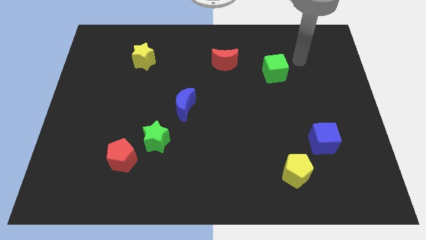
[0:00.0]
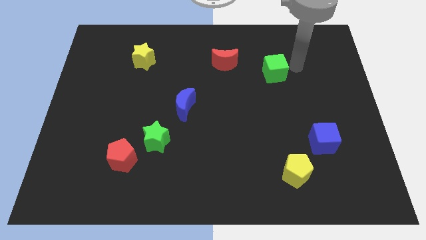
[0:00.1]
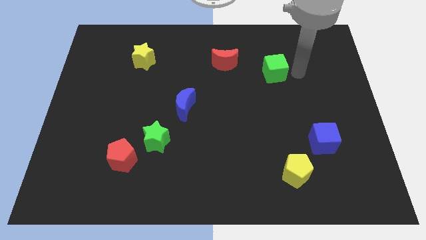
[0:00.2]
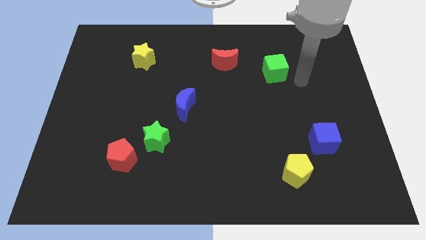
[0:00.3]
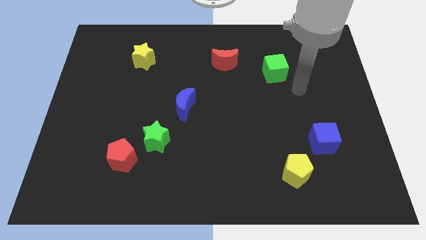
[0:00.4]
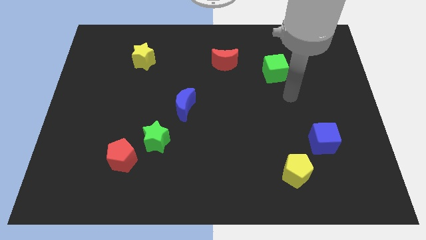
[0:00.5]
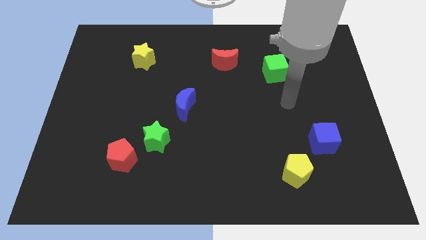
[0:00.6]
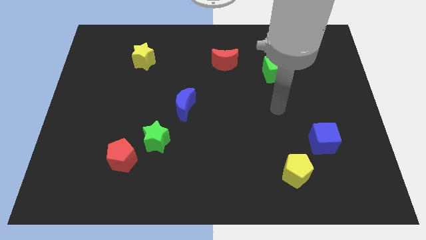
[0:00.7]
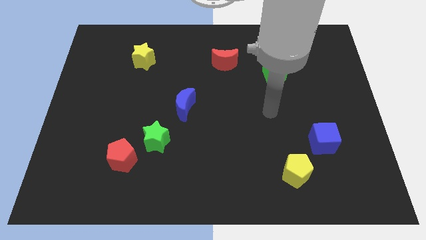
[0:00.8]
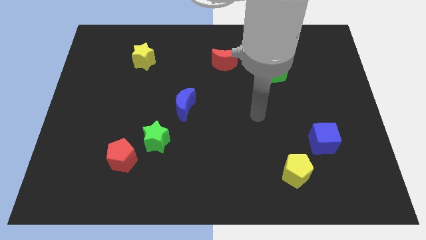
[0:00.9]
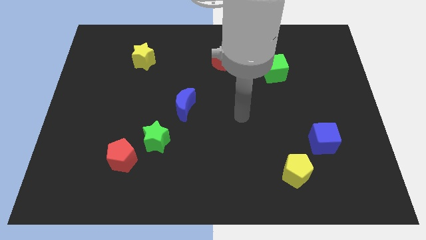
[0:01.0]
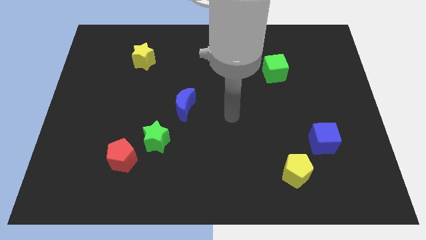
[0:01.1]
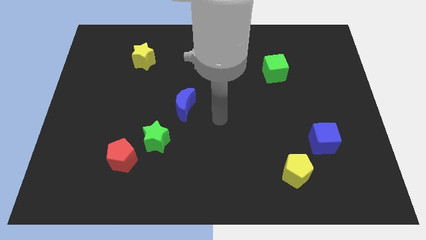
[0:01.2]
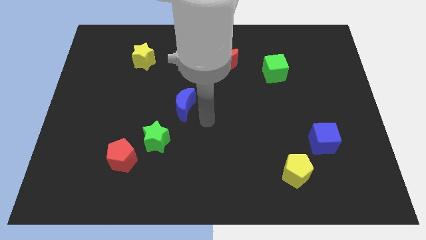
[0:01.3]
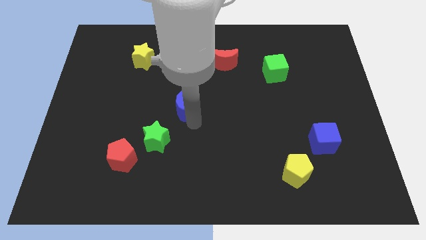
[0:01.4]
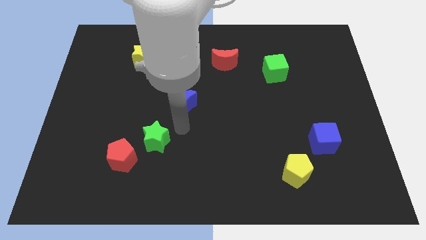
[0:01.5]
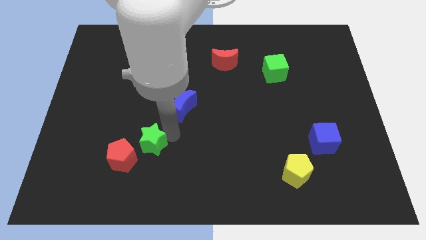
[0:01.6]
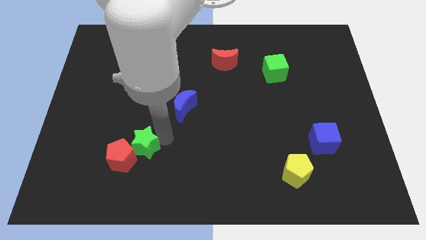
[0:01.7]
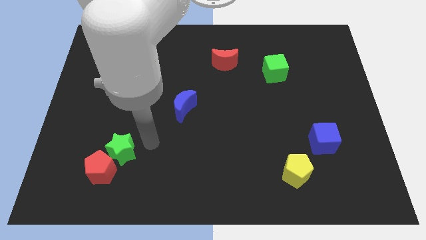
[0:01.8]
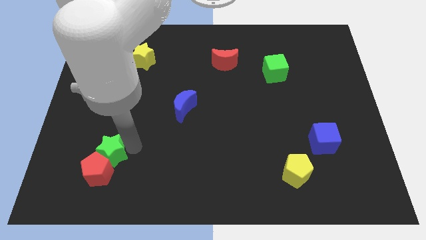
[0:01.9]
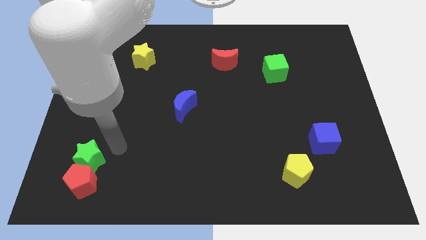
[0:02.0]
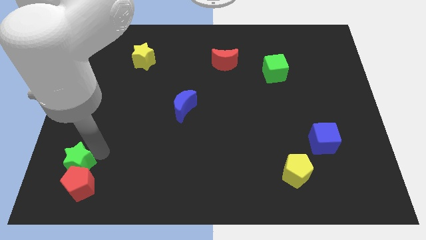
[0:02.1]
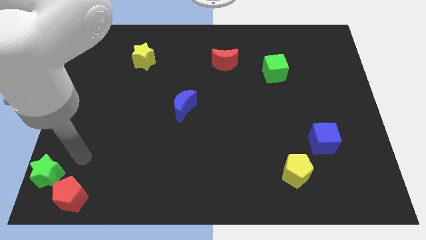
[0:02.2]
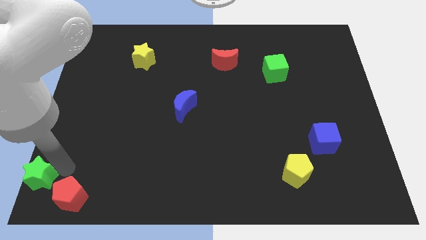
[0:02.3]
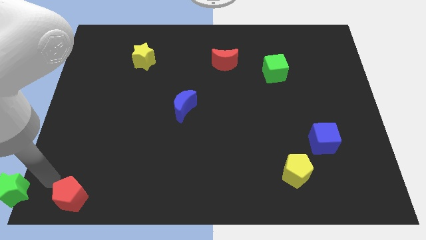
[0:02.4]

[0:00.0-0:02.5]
separate the red pentagon from the green star

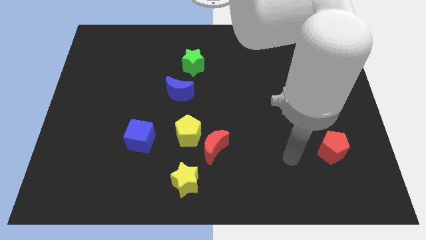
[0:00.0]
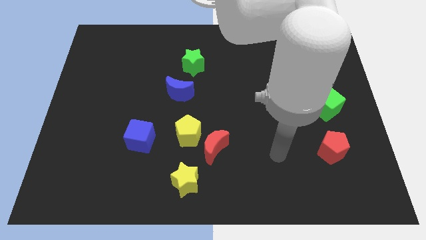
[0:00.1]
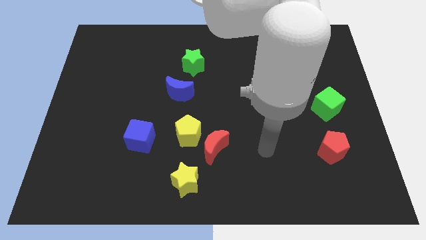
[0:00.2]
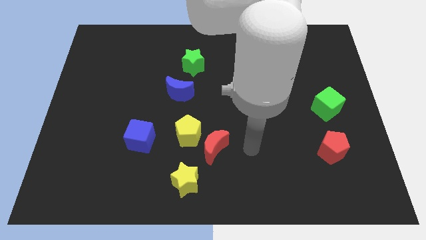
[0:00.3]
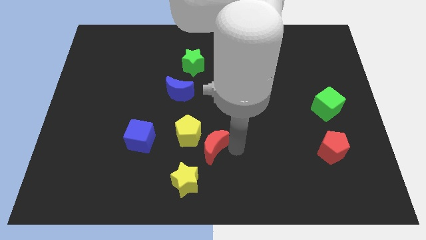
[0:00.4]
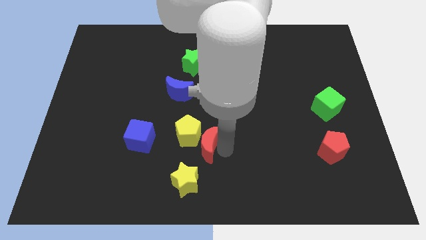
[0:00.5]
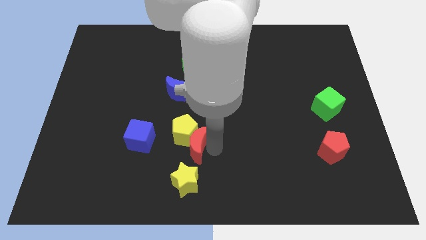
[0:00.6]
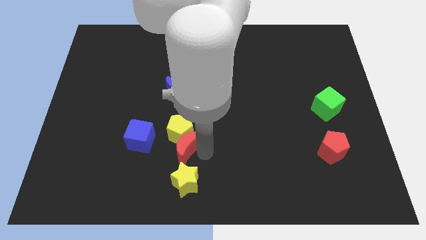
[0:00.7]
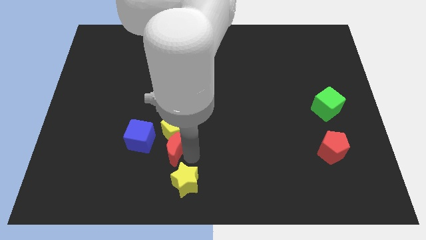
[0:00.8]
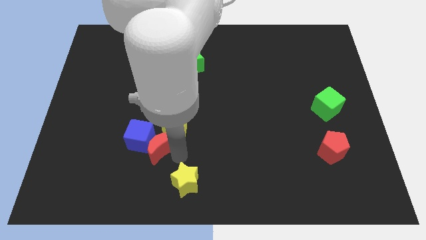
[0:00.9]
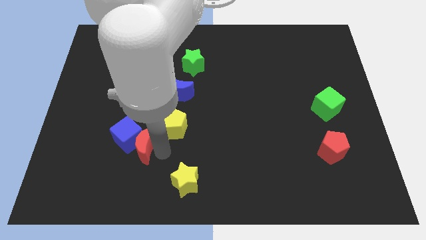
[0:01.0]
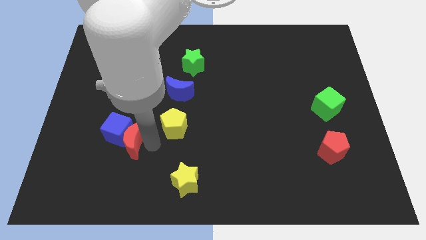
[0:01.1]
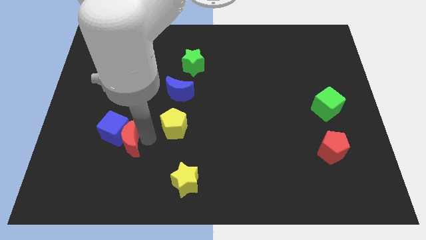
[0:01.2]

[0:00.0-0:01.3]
move the yellow pentagon away from the red moon

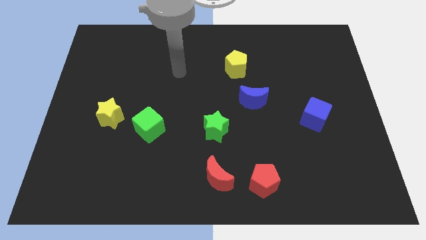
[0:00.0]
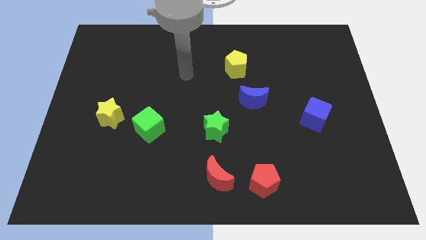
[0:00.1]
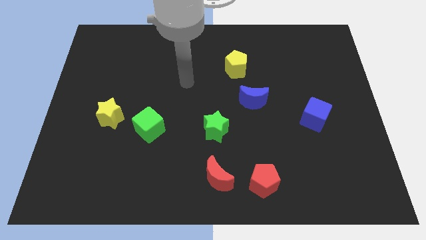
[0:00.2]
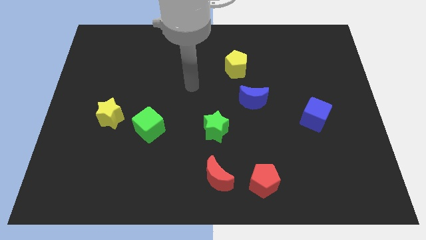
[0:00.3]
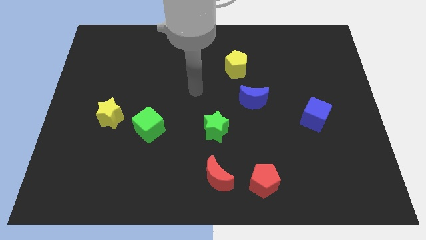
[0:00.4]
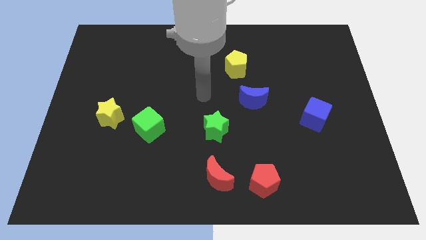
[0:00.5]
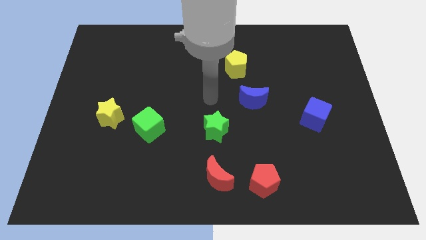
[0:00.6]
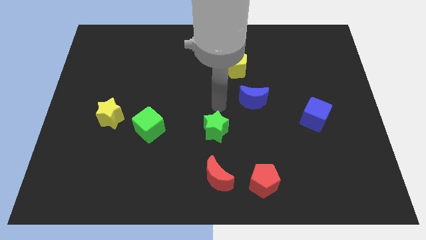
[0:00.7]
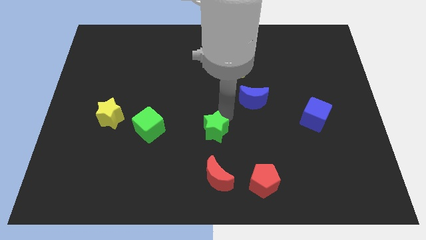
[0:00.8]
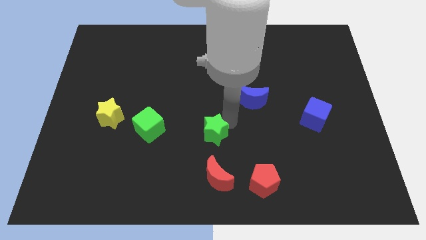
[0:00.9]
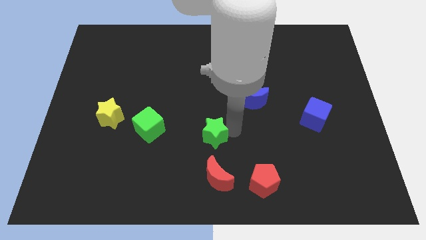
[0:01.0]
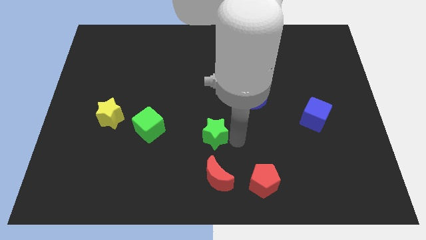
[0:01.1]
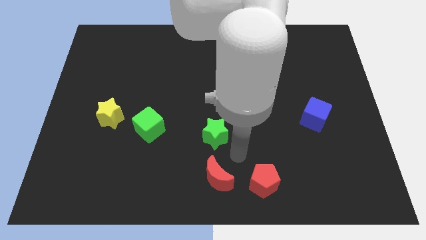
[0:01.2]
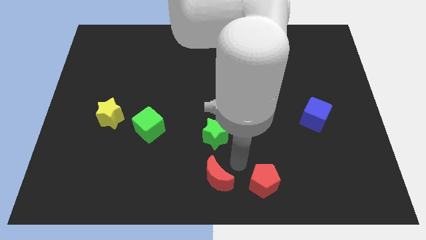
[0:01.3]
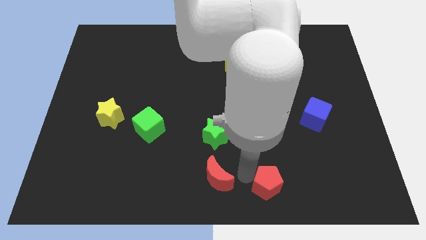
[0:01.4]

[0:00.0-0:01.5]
separate the red moon from the red pentagon

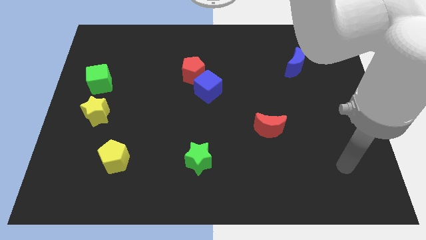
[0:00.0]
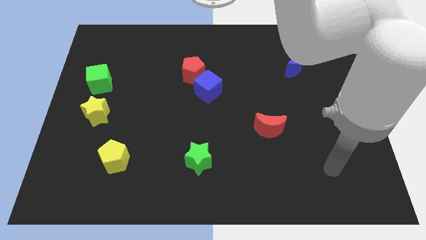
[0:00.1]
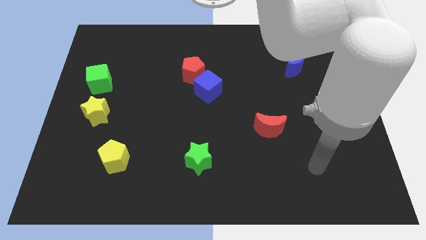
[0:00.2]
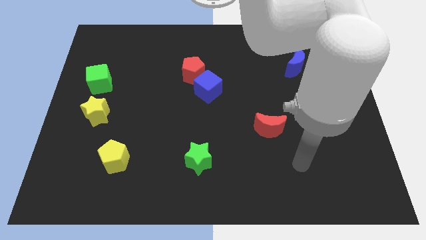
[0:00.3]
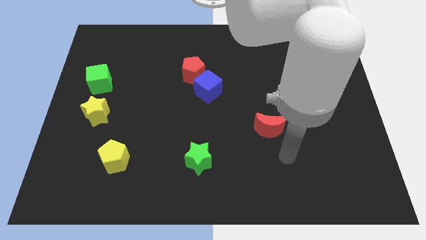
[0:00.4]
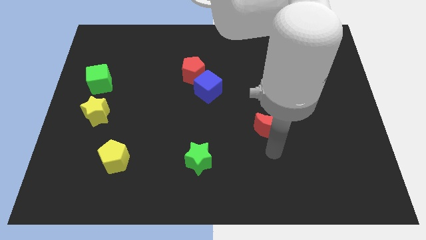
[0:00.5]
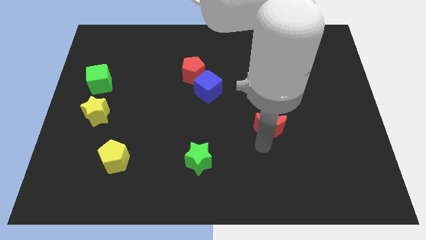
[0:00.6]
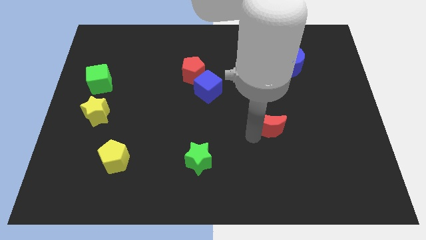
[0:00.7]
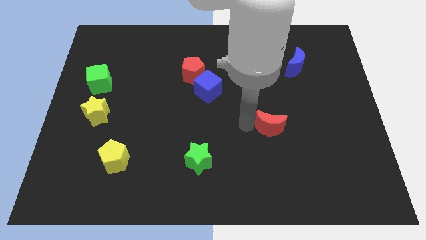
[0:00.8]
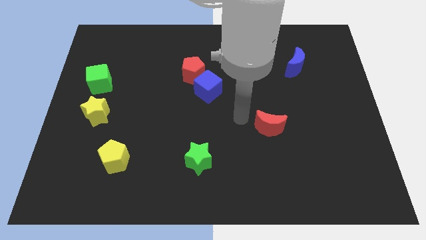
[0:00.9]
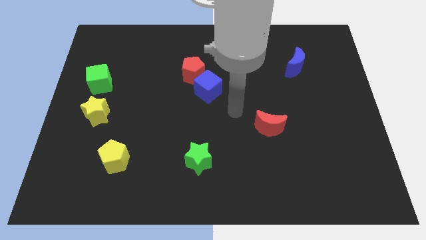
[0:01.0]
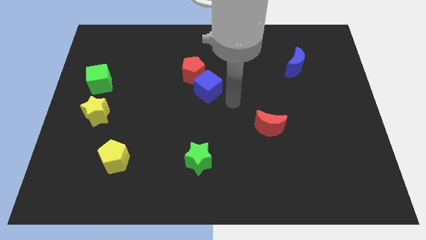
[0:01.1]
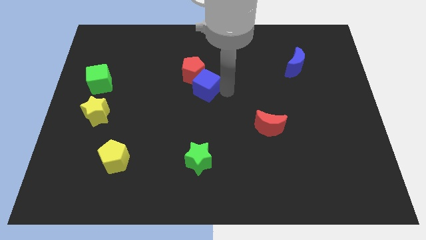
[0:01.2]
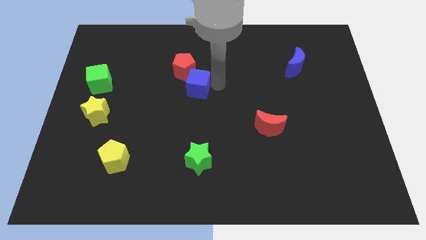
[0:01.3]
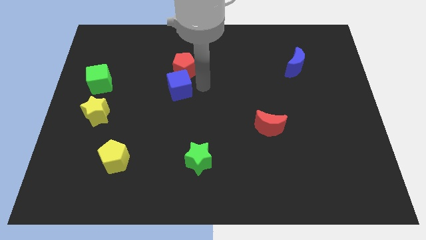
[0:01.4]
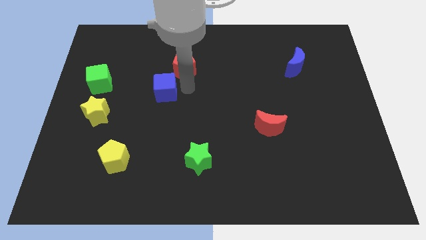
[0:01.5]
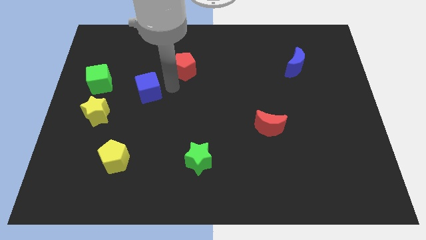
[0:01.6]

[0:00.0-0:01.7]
separate the red pentagon from the blue cube

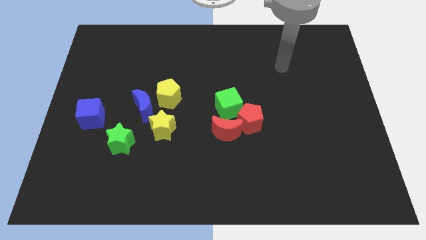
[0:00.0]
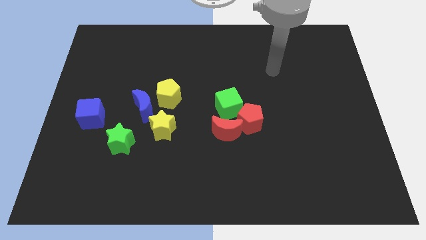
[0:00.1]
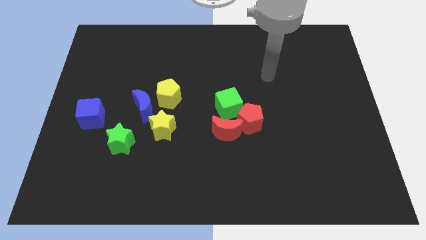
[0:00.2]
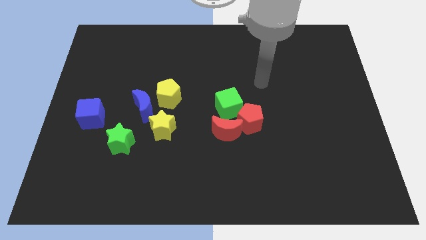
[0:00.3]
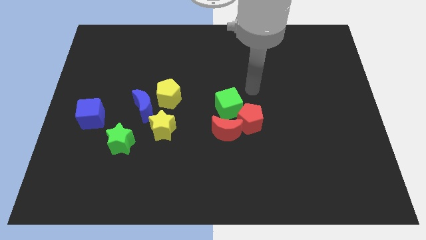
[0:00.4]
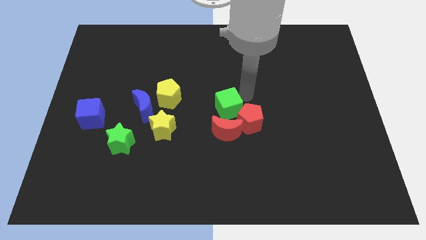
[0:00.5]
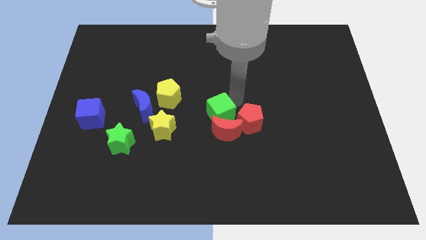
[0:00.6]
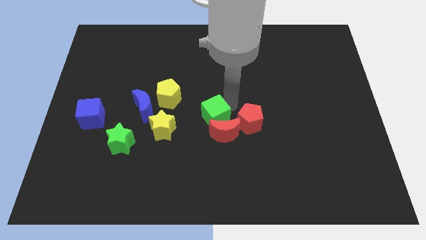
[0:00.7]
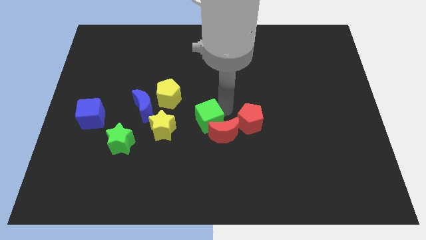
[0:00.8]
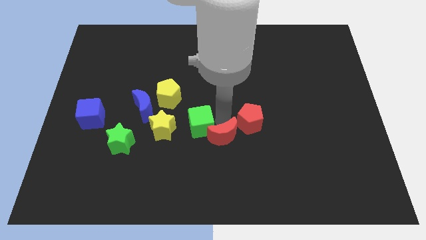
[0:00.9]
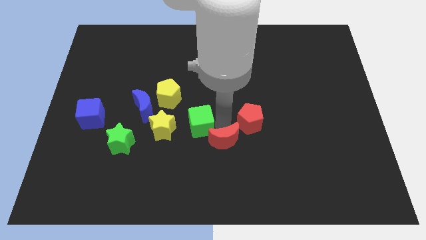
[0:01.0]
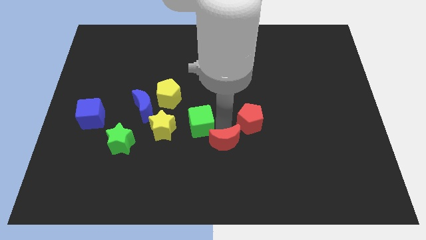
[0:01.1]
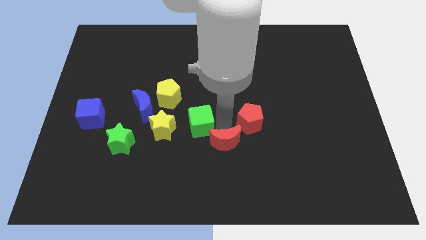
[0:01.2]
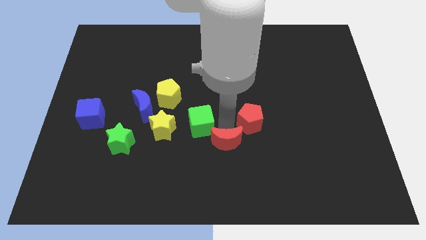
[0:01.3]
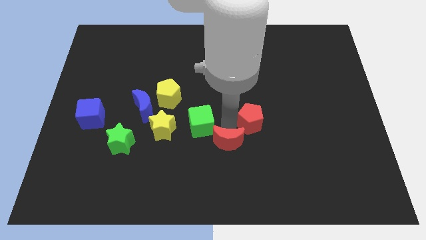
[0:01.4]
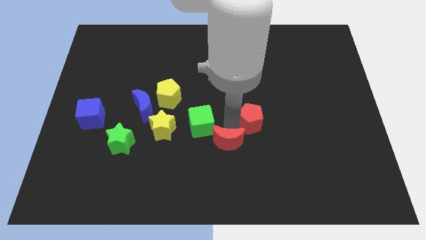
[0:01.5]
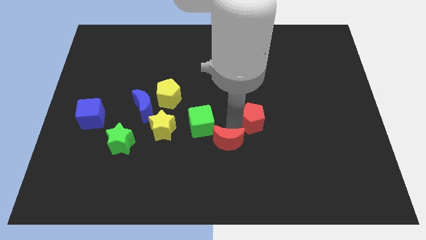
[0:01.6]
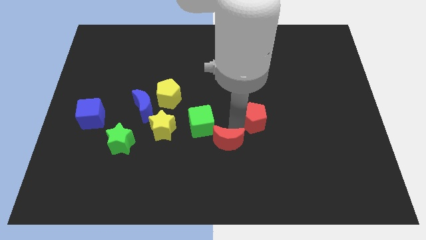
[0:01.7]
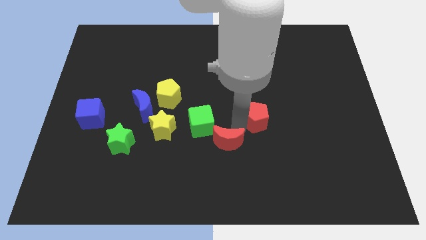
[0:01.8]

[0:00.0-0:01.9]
move the red pentagon away from the red moon and green cube

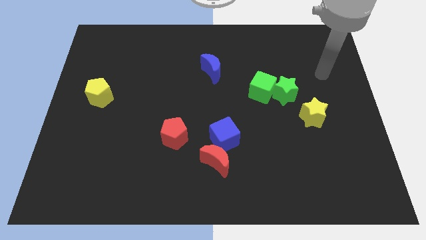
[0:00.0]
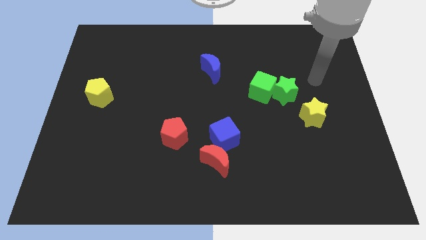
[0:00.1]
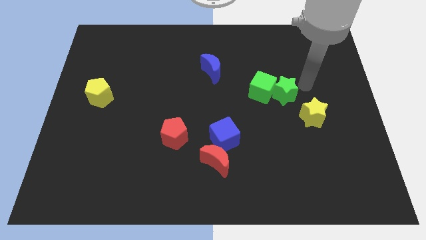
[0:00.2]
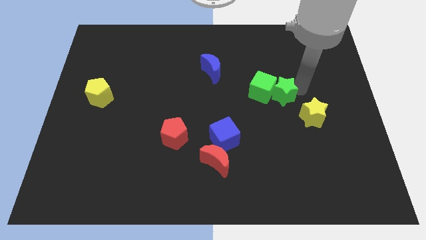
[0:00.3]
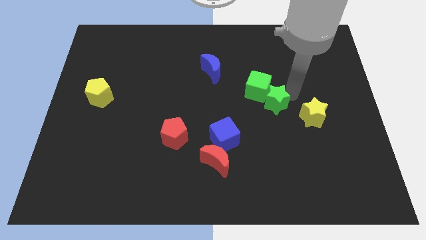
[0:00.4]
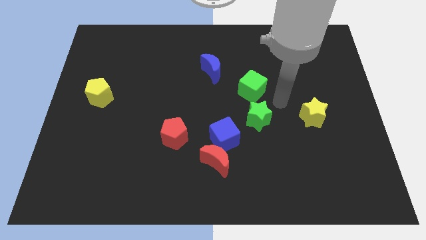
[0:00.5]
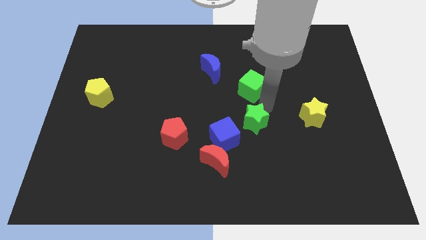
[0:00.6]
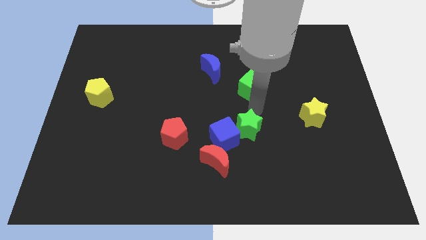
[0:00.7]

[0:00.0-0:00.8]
separate the green cube from the green star
